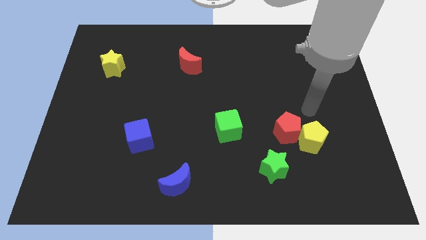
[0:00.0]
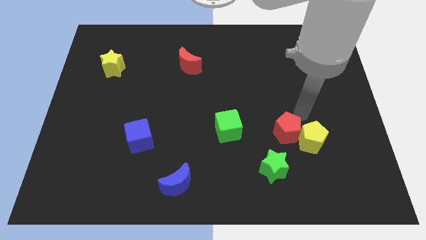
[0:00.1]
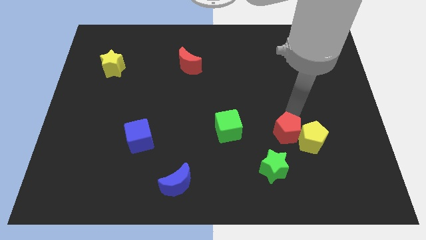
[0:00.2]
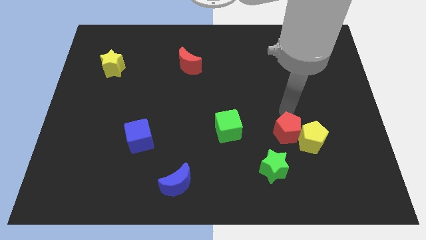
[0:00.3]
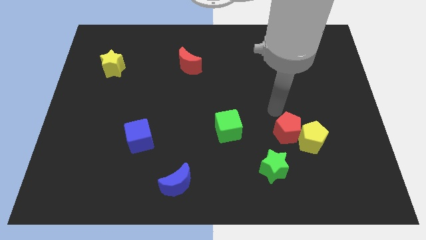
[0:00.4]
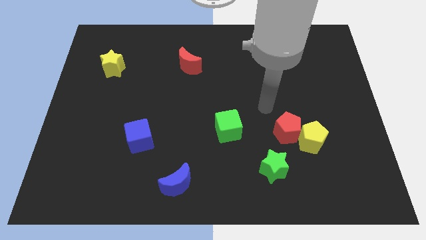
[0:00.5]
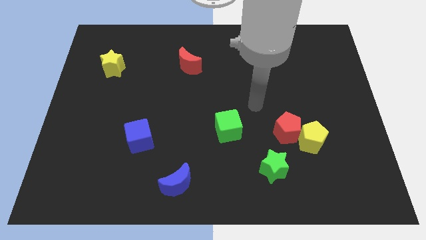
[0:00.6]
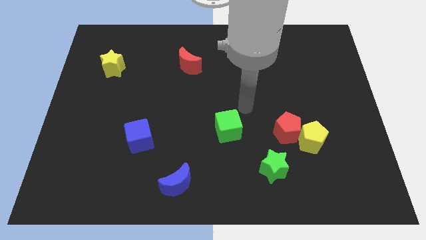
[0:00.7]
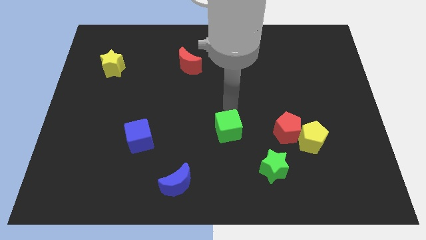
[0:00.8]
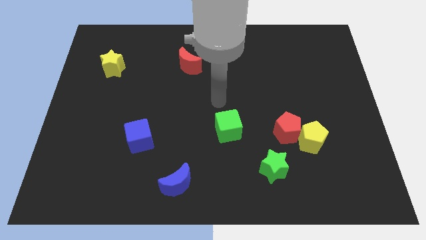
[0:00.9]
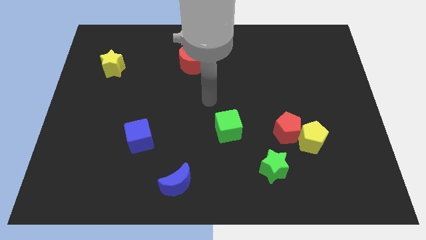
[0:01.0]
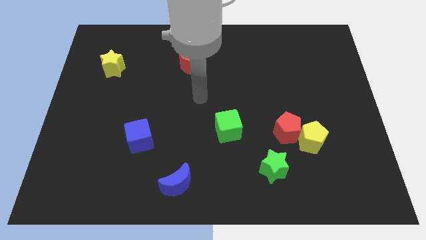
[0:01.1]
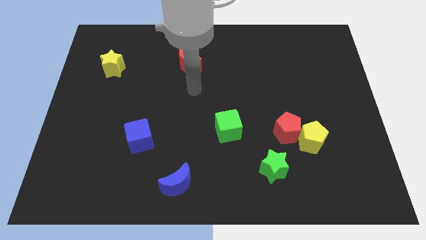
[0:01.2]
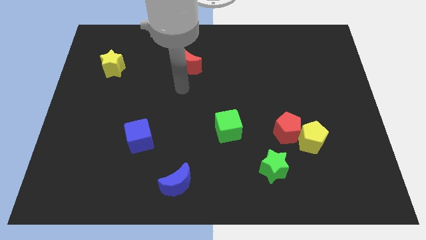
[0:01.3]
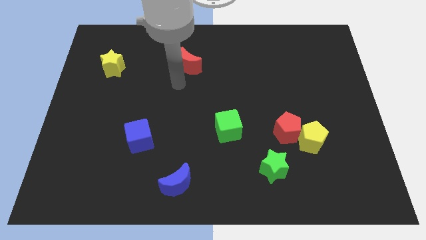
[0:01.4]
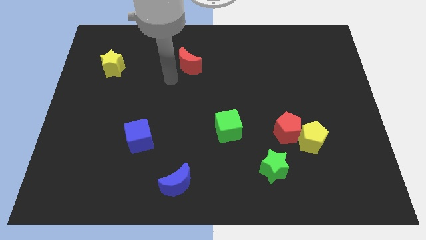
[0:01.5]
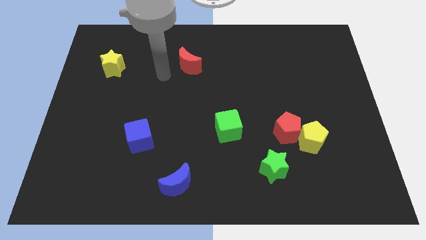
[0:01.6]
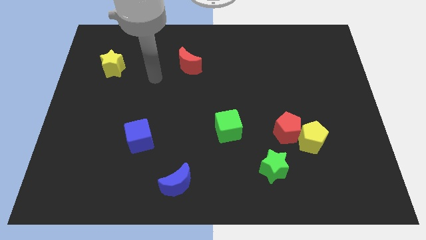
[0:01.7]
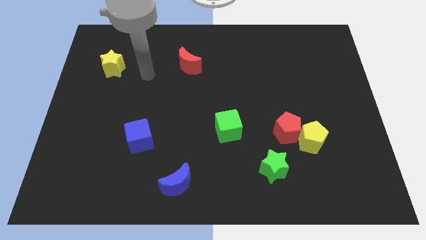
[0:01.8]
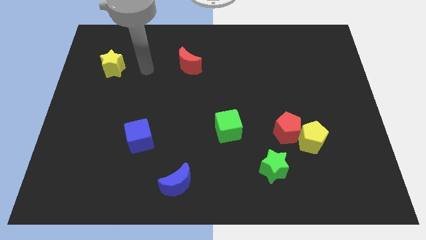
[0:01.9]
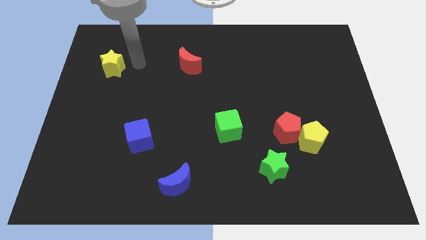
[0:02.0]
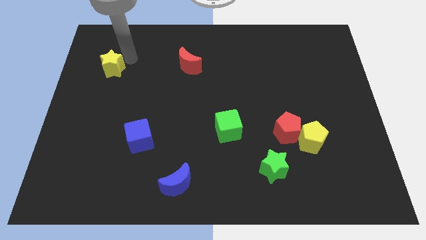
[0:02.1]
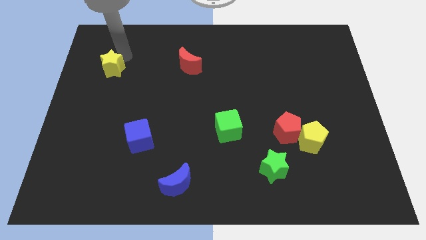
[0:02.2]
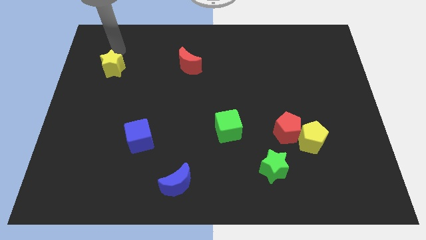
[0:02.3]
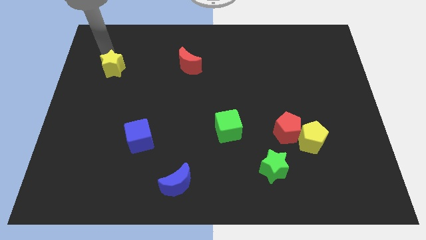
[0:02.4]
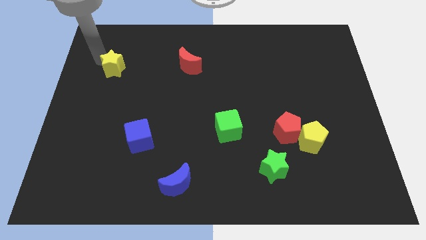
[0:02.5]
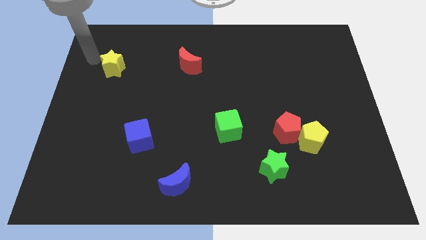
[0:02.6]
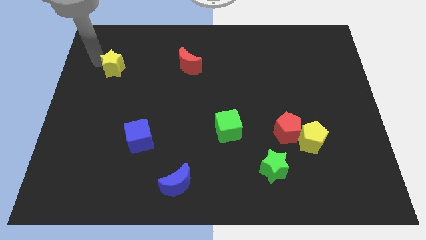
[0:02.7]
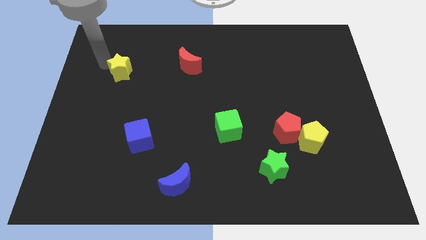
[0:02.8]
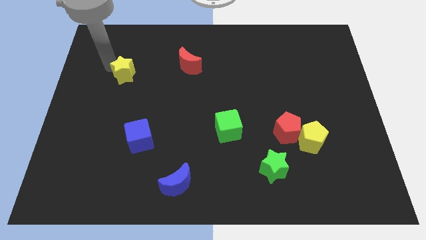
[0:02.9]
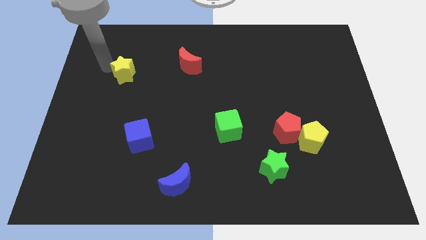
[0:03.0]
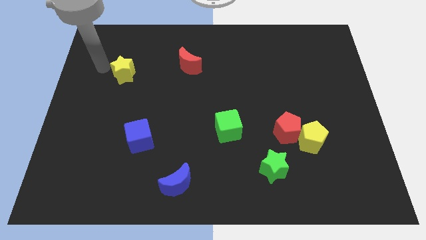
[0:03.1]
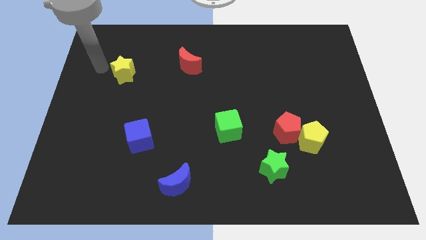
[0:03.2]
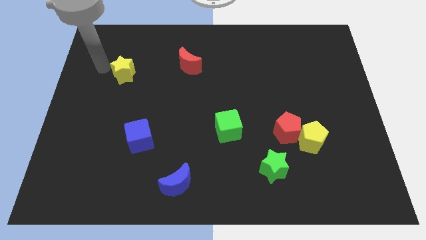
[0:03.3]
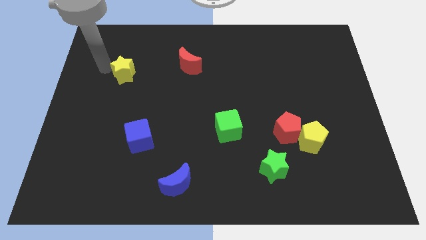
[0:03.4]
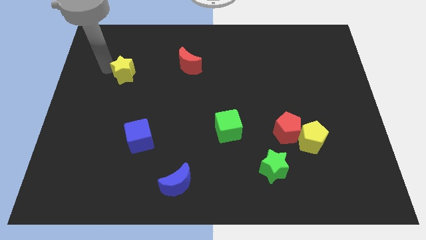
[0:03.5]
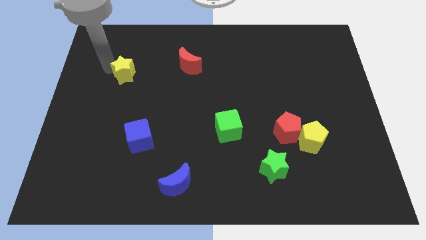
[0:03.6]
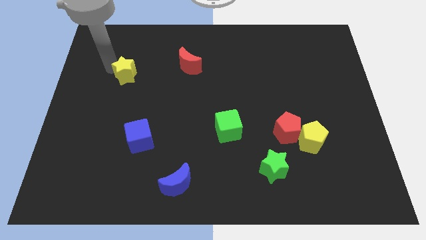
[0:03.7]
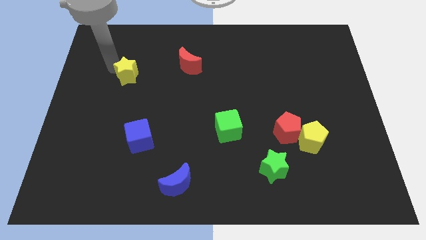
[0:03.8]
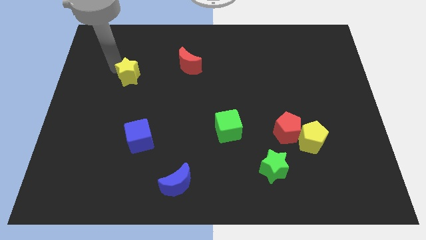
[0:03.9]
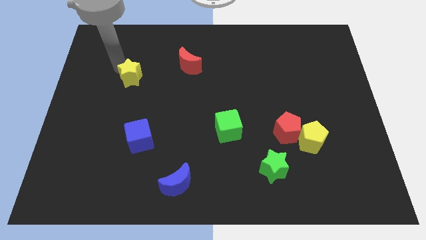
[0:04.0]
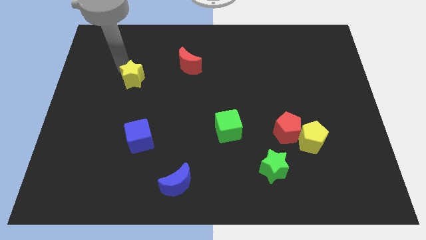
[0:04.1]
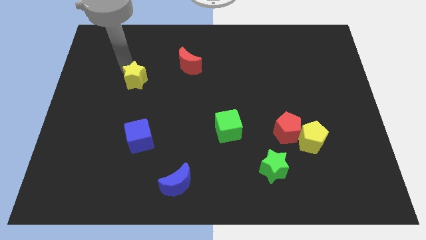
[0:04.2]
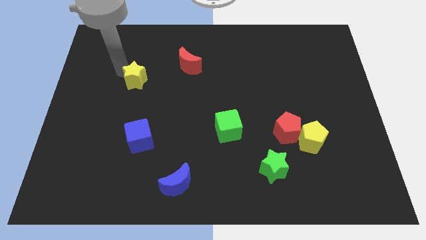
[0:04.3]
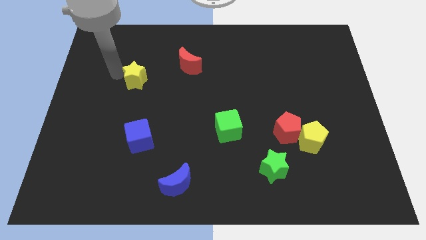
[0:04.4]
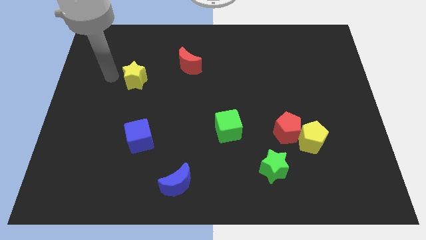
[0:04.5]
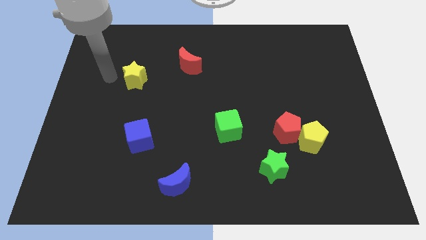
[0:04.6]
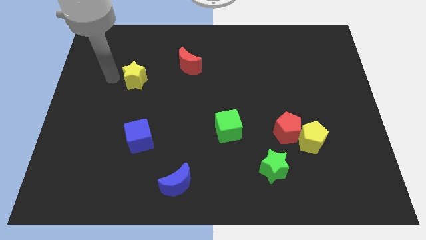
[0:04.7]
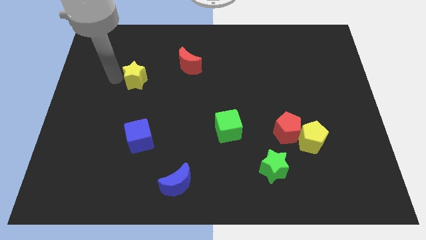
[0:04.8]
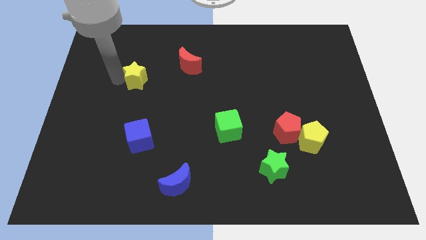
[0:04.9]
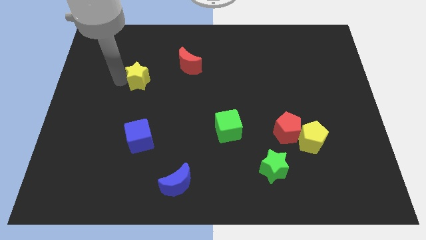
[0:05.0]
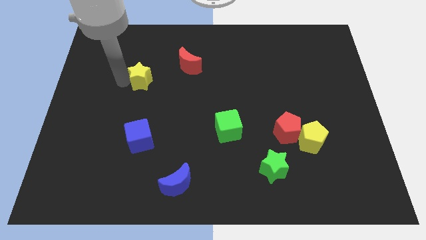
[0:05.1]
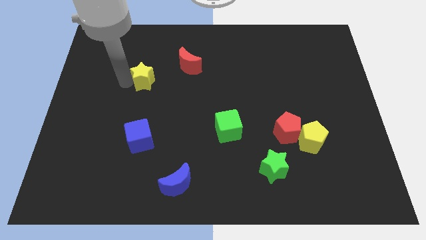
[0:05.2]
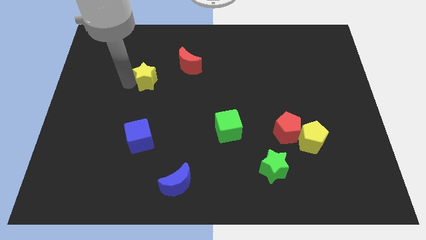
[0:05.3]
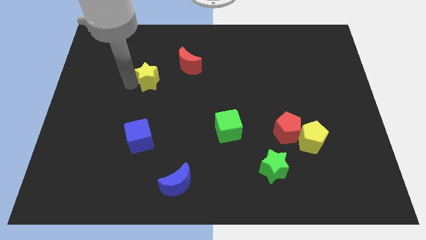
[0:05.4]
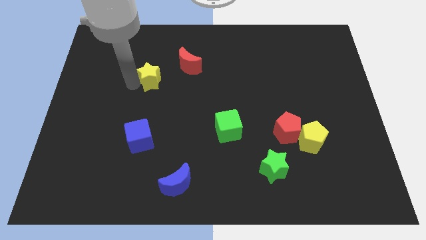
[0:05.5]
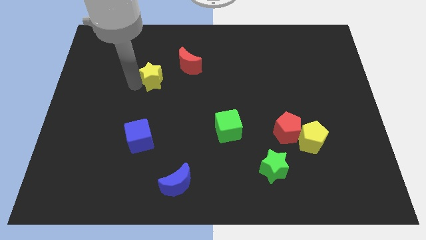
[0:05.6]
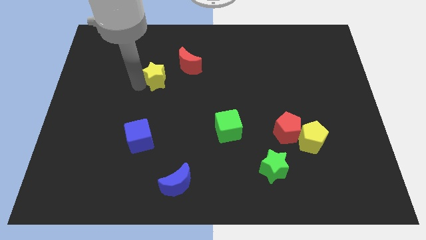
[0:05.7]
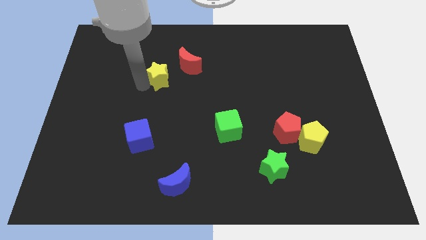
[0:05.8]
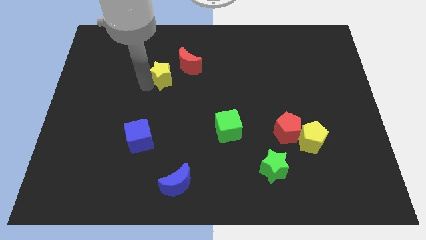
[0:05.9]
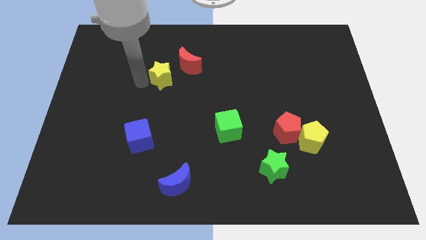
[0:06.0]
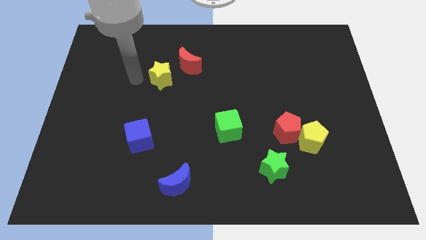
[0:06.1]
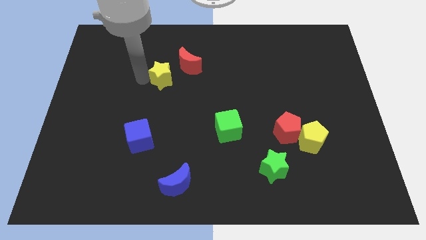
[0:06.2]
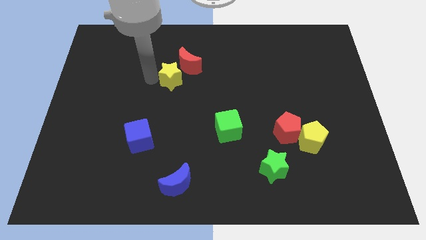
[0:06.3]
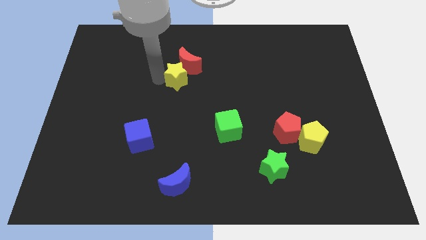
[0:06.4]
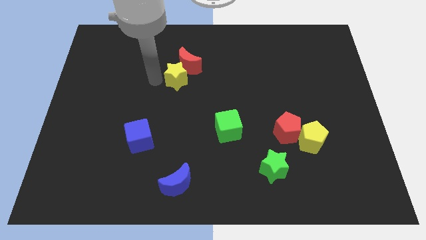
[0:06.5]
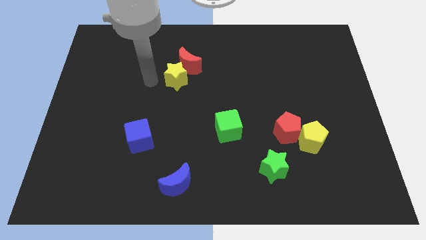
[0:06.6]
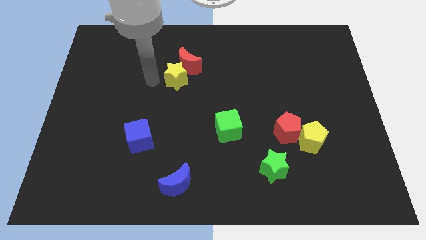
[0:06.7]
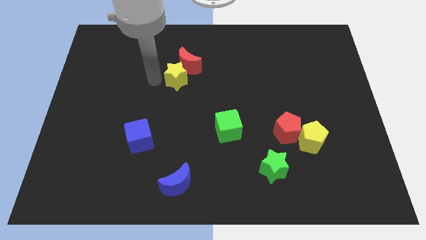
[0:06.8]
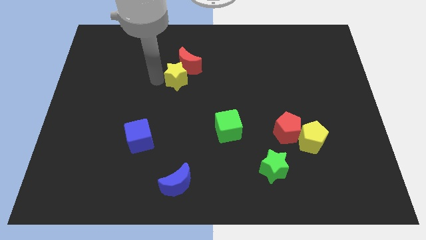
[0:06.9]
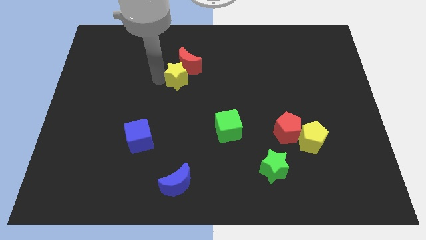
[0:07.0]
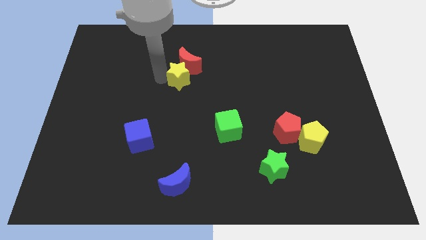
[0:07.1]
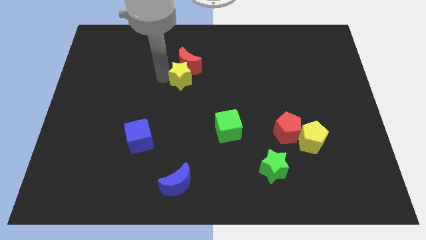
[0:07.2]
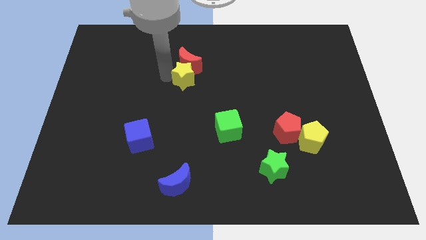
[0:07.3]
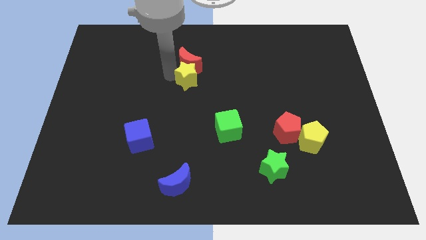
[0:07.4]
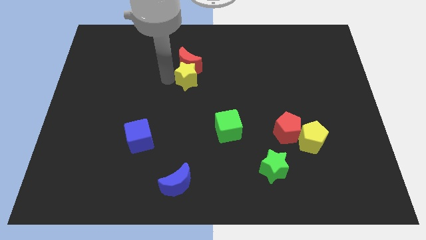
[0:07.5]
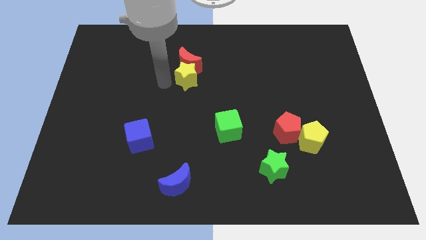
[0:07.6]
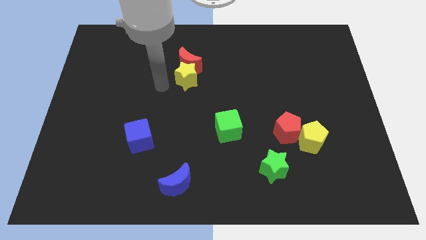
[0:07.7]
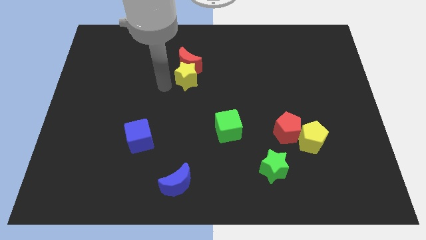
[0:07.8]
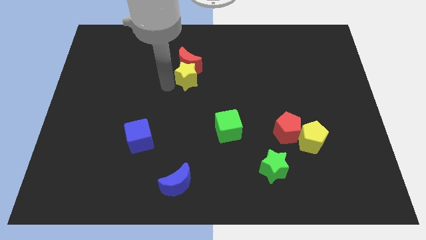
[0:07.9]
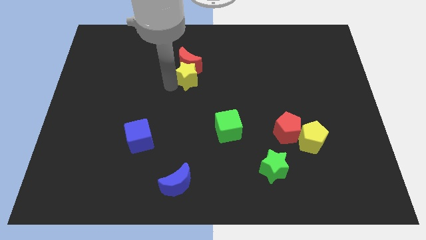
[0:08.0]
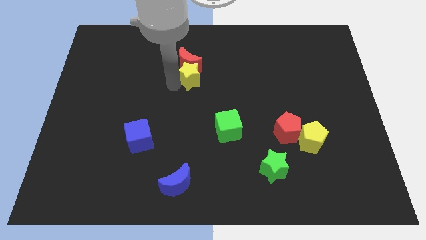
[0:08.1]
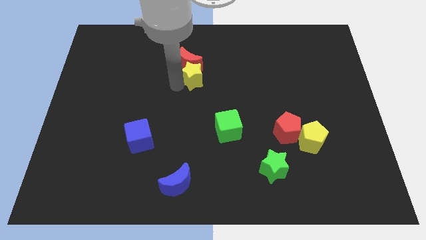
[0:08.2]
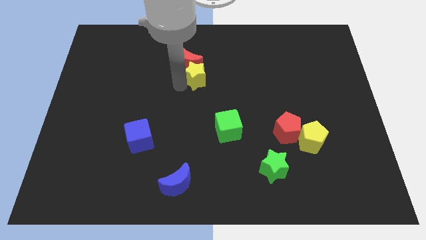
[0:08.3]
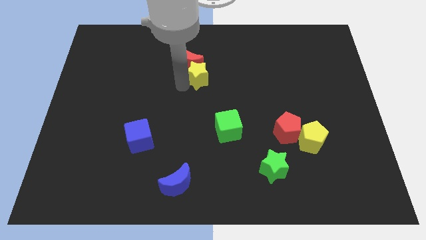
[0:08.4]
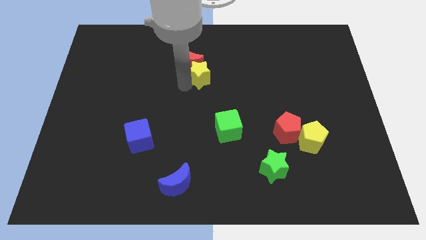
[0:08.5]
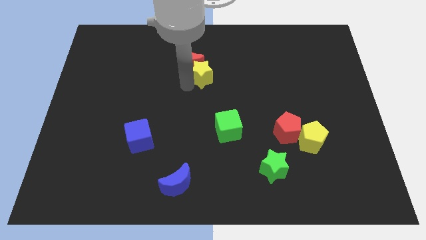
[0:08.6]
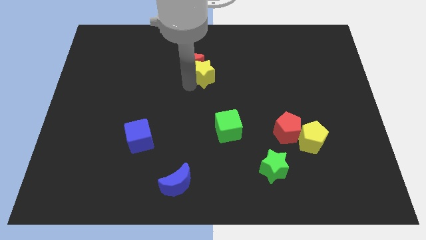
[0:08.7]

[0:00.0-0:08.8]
slide the yellow star to the right side of the red moon
